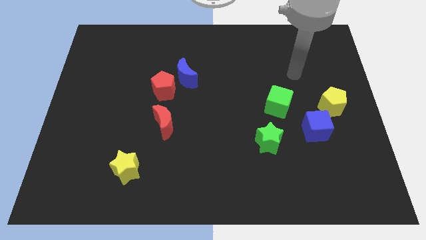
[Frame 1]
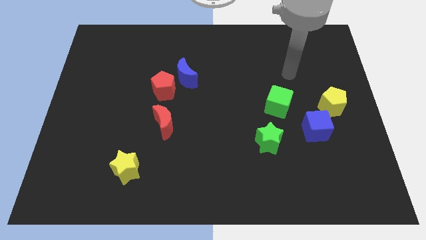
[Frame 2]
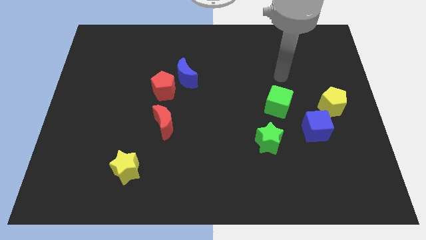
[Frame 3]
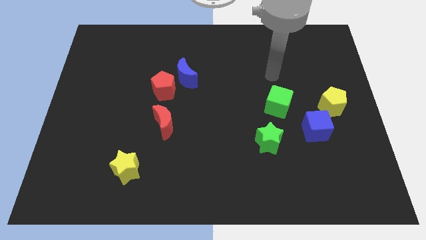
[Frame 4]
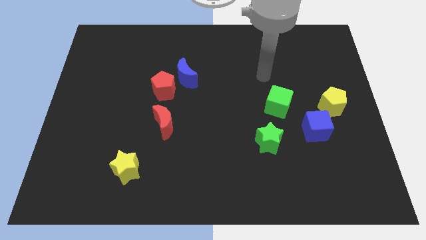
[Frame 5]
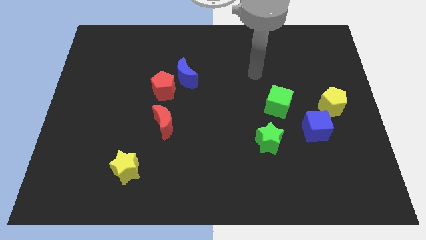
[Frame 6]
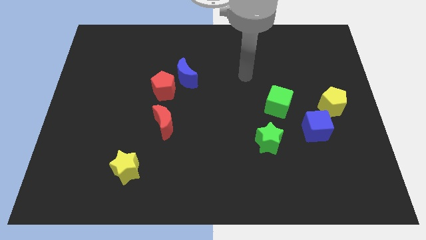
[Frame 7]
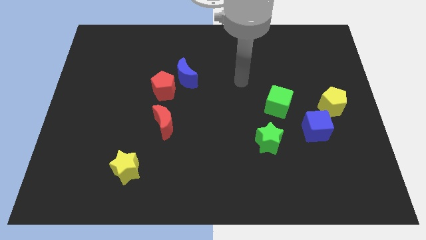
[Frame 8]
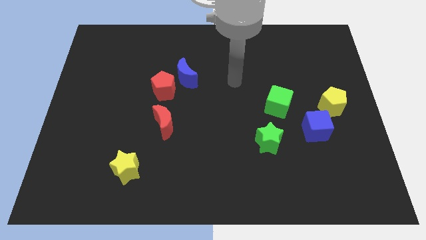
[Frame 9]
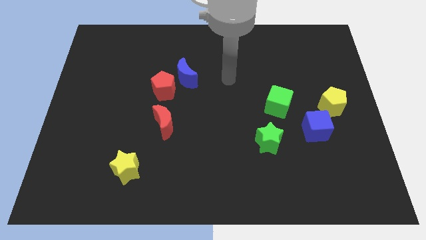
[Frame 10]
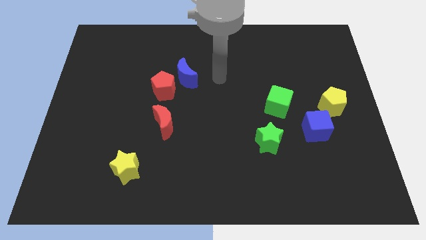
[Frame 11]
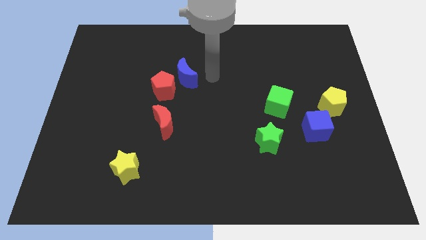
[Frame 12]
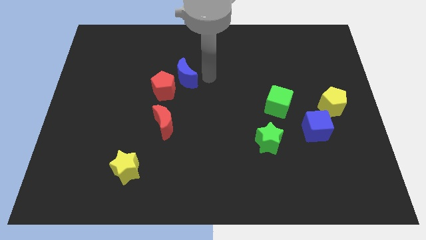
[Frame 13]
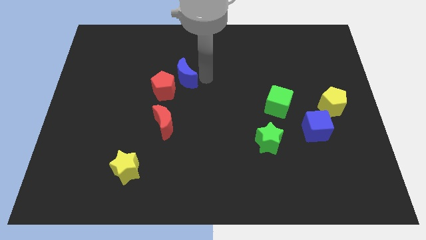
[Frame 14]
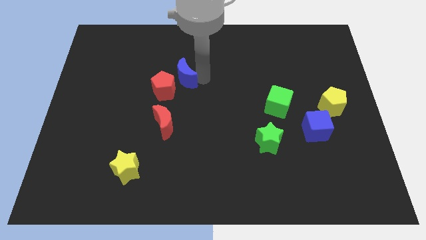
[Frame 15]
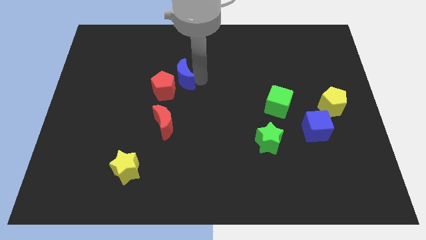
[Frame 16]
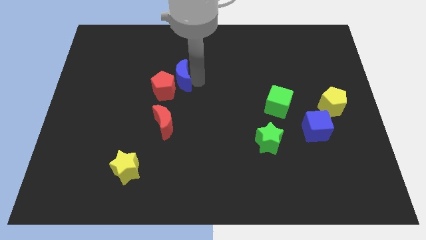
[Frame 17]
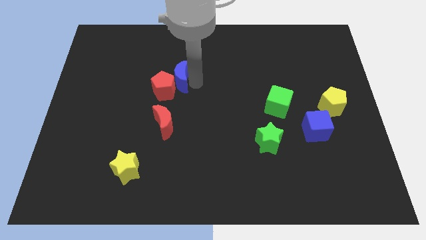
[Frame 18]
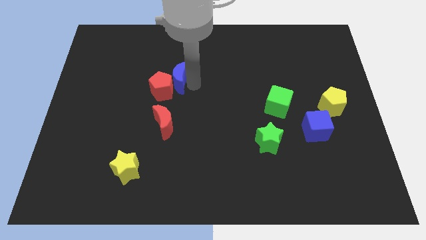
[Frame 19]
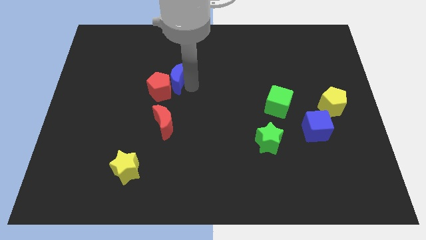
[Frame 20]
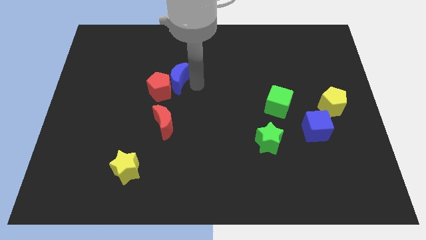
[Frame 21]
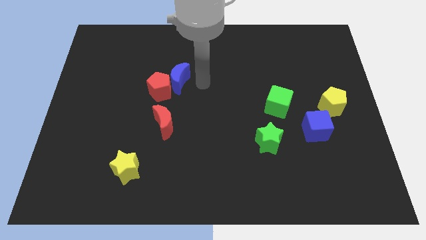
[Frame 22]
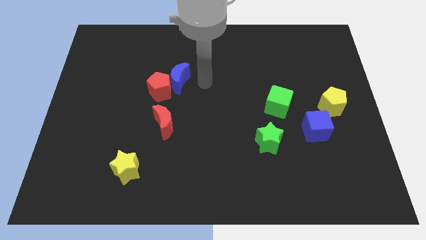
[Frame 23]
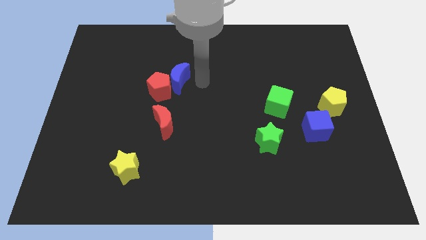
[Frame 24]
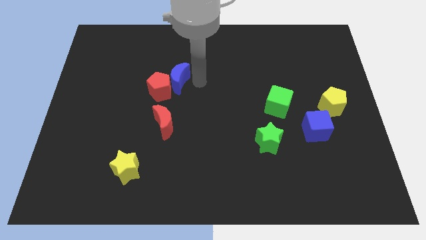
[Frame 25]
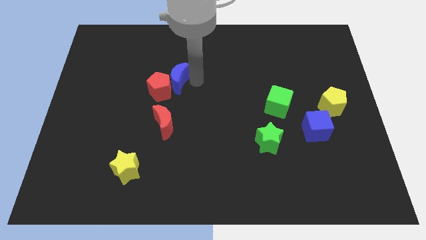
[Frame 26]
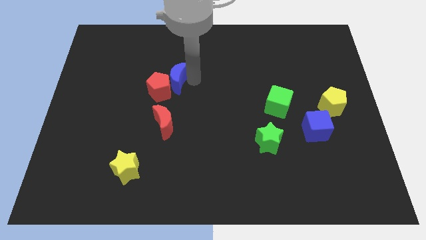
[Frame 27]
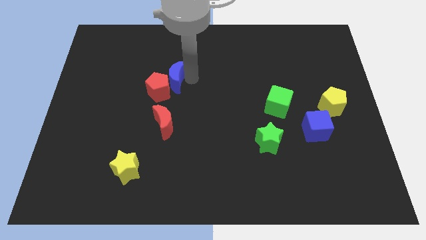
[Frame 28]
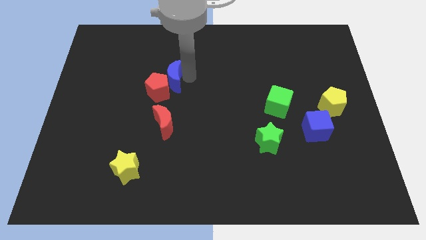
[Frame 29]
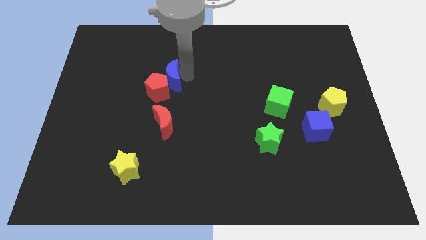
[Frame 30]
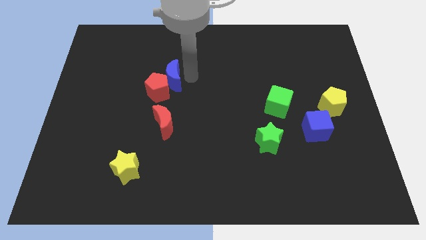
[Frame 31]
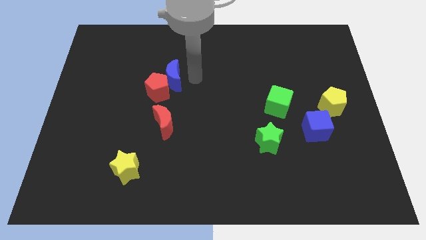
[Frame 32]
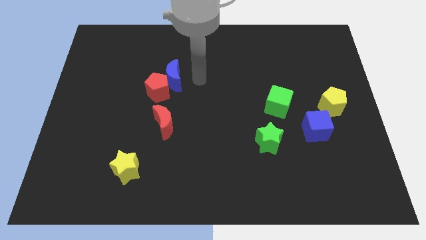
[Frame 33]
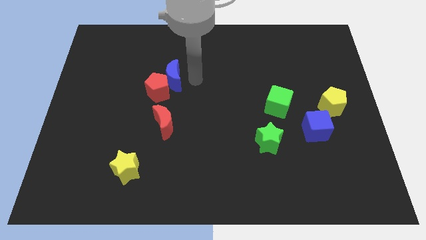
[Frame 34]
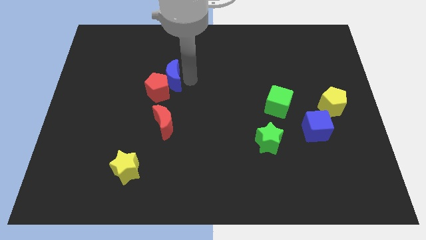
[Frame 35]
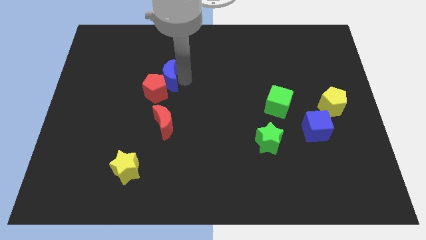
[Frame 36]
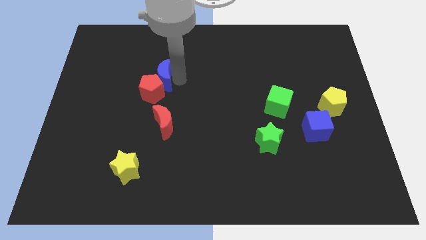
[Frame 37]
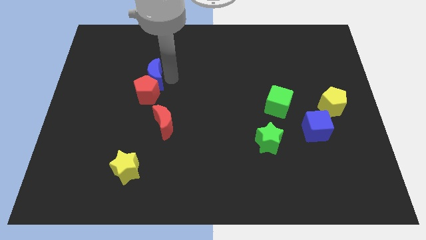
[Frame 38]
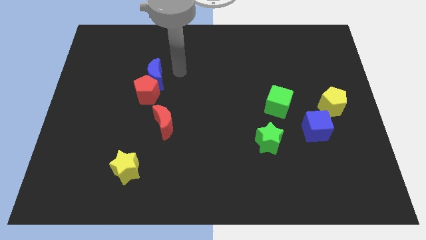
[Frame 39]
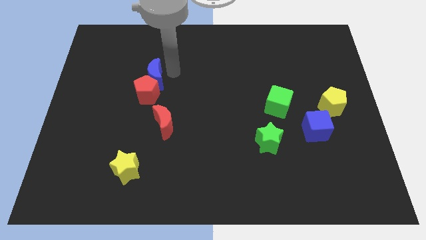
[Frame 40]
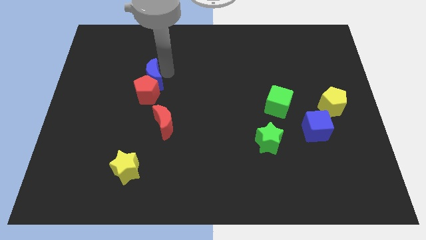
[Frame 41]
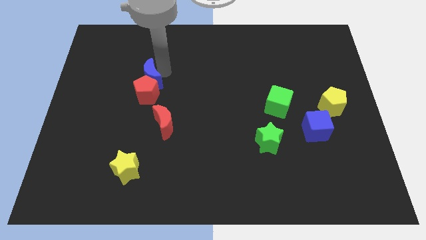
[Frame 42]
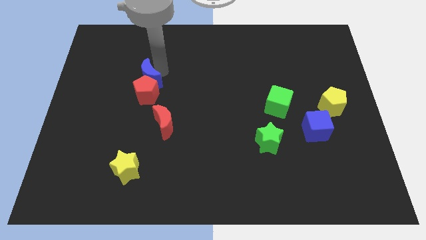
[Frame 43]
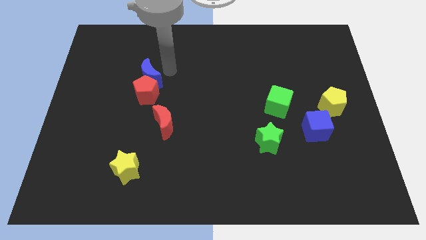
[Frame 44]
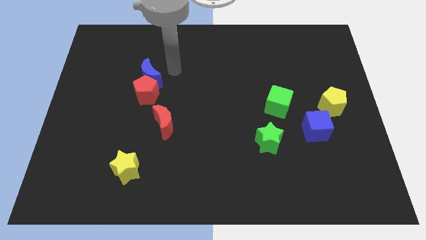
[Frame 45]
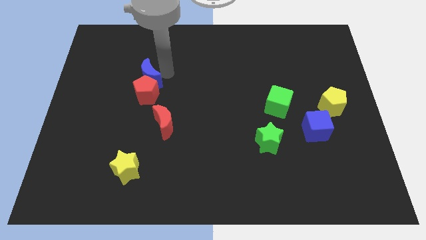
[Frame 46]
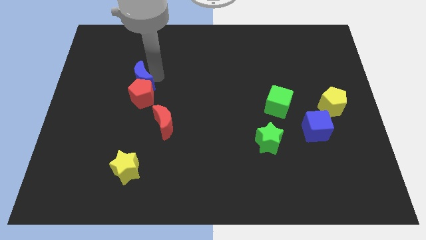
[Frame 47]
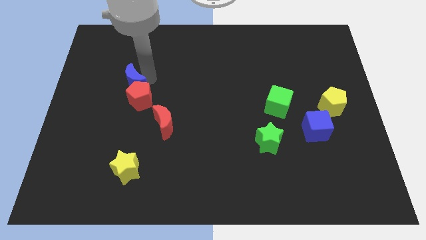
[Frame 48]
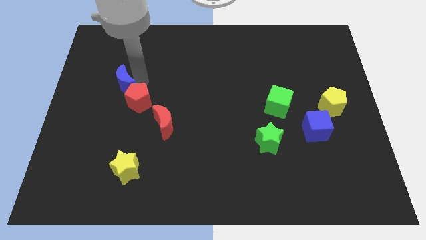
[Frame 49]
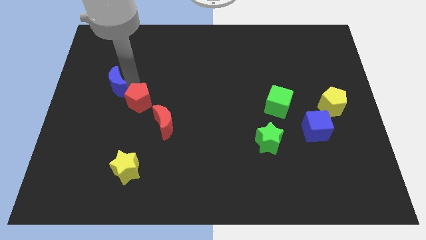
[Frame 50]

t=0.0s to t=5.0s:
put the blue moon to the left side of the red pentagon

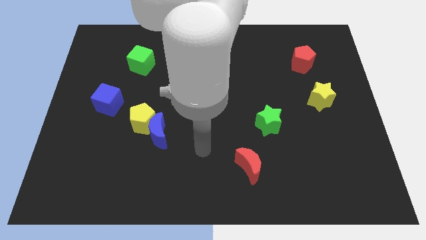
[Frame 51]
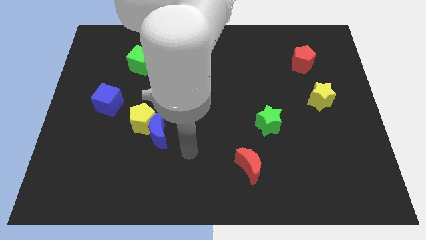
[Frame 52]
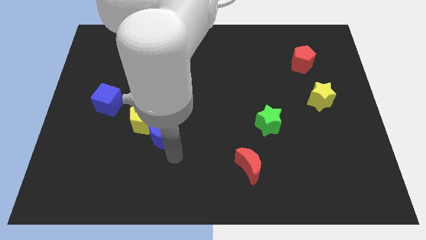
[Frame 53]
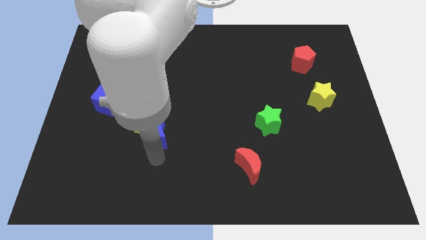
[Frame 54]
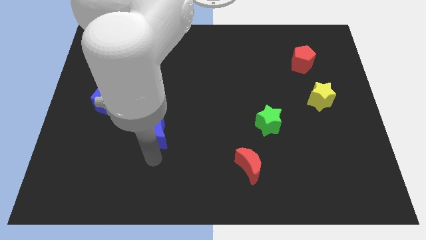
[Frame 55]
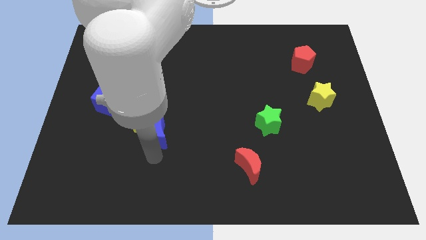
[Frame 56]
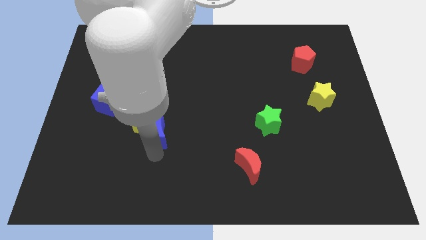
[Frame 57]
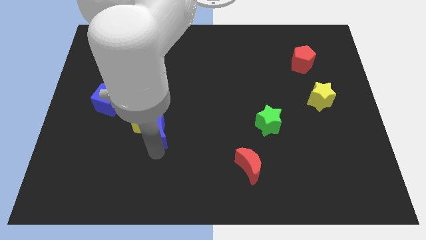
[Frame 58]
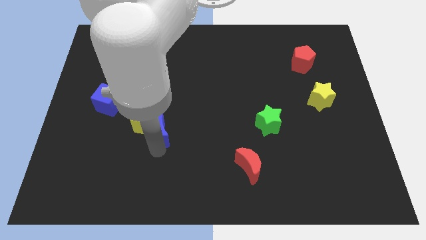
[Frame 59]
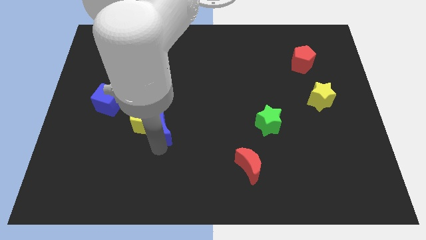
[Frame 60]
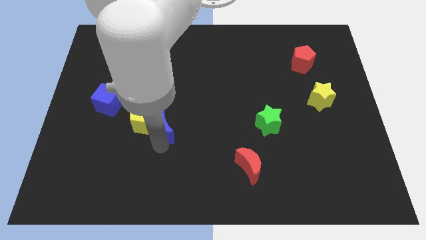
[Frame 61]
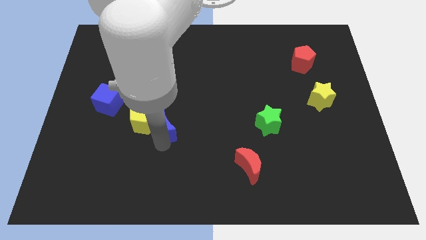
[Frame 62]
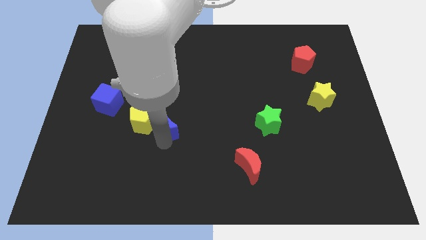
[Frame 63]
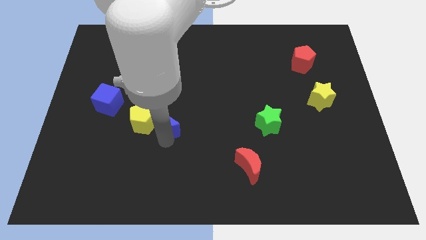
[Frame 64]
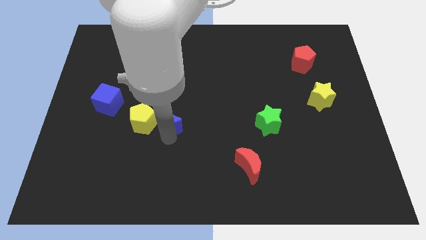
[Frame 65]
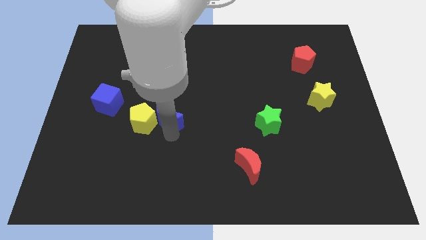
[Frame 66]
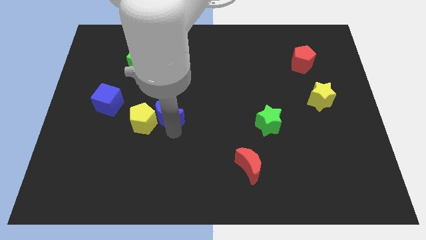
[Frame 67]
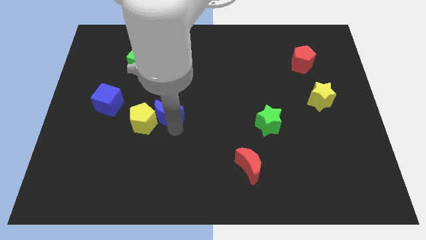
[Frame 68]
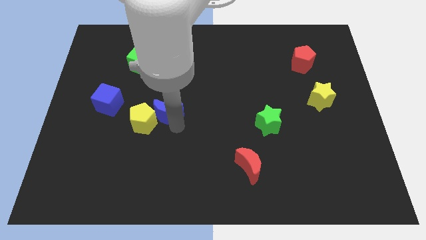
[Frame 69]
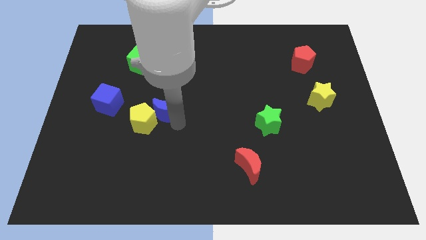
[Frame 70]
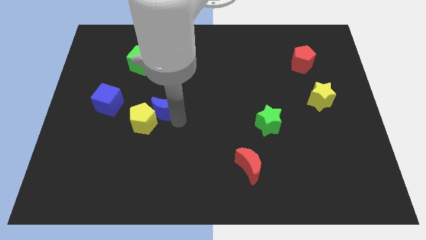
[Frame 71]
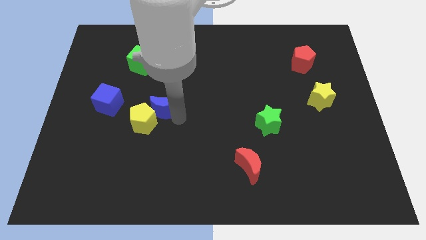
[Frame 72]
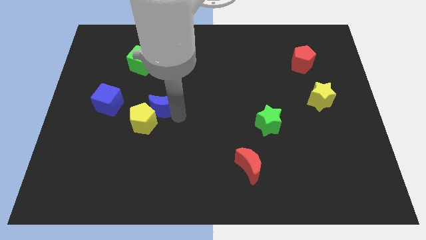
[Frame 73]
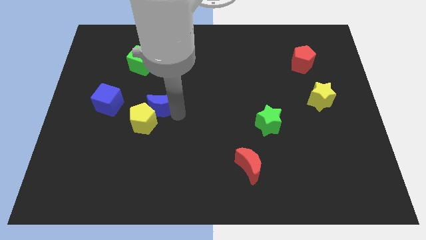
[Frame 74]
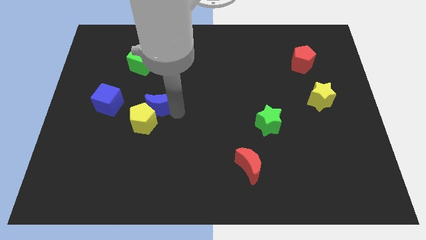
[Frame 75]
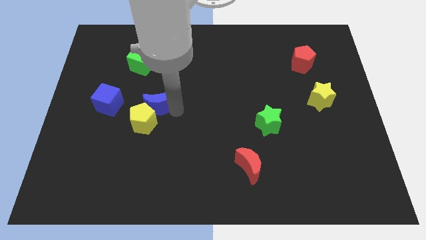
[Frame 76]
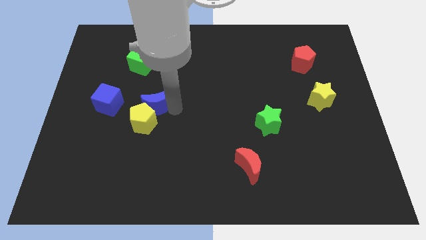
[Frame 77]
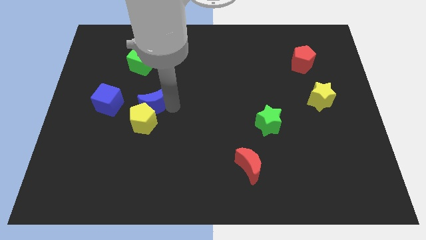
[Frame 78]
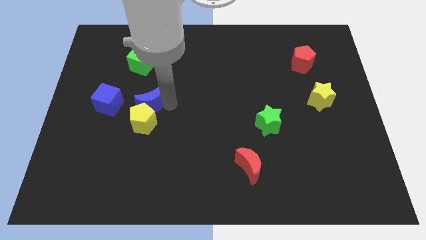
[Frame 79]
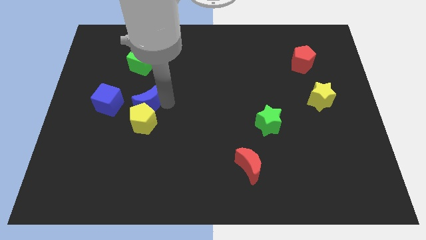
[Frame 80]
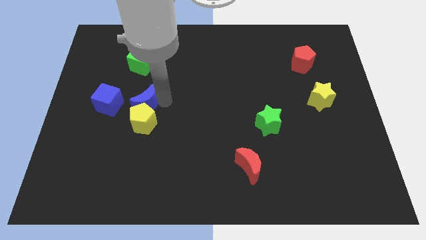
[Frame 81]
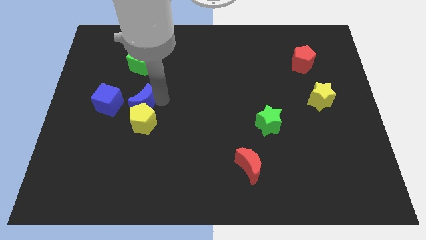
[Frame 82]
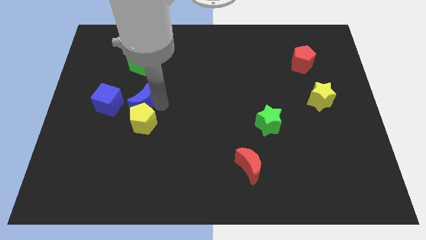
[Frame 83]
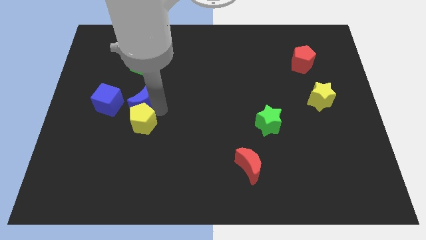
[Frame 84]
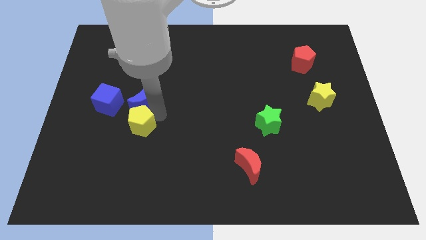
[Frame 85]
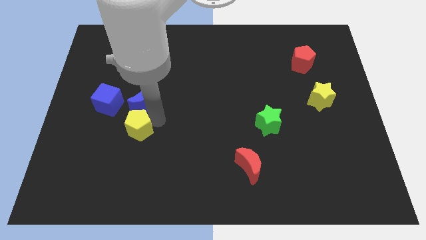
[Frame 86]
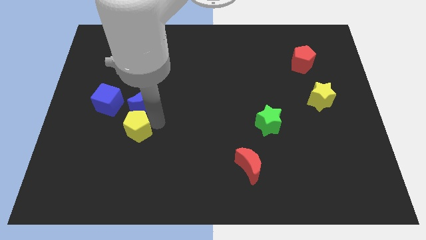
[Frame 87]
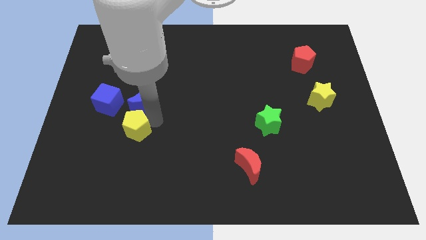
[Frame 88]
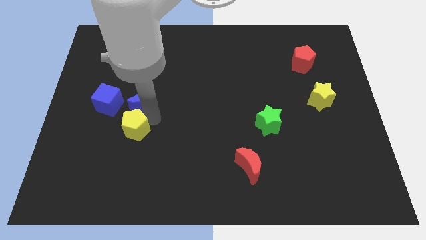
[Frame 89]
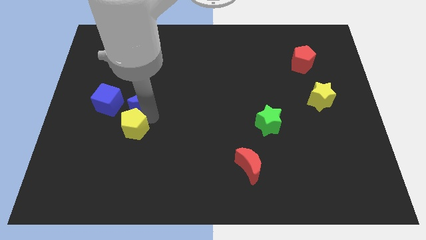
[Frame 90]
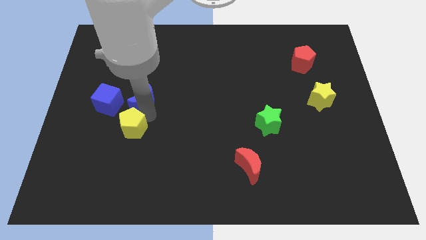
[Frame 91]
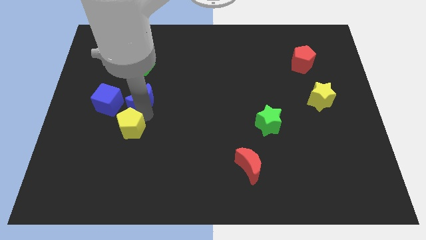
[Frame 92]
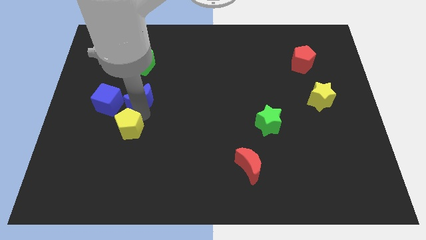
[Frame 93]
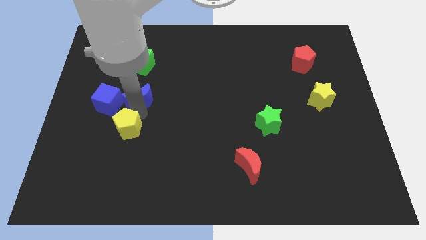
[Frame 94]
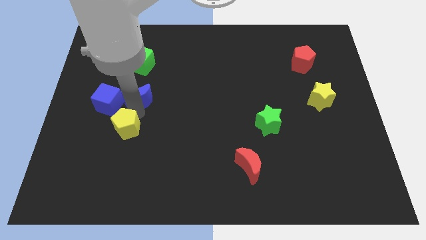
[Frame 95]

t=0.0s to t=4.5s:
put the blue moon to the top right of the blue cube
